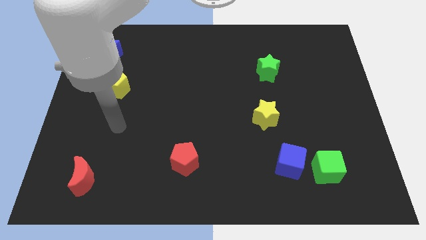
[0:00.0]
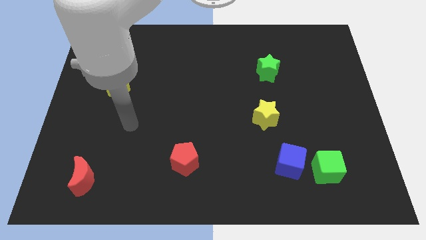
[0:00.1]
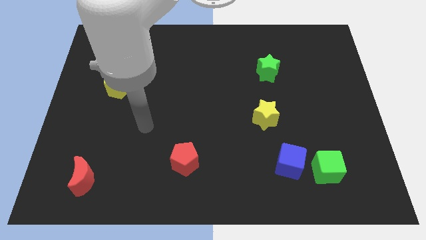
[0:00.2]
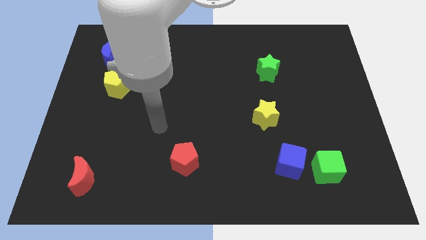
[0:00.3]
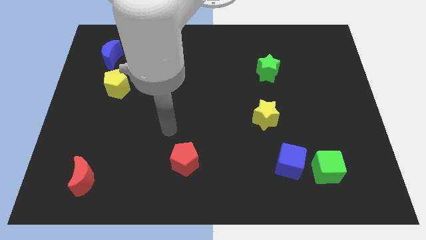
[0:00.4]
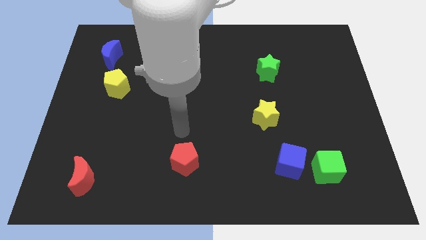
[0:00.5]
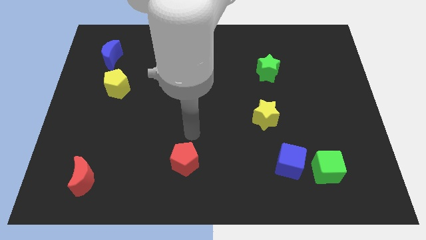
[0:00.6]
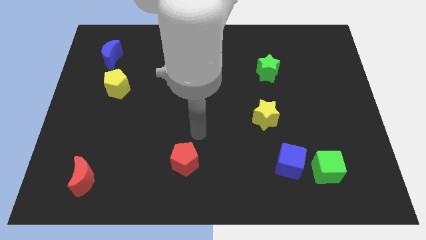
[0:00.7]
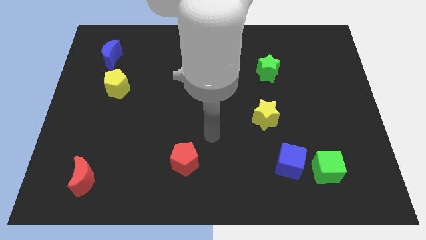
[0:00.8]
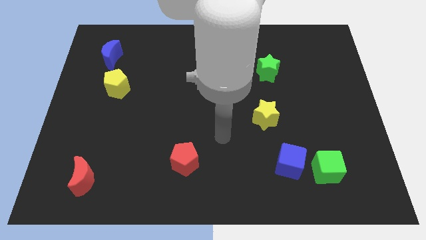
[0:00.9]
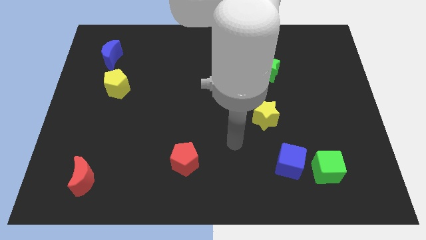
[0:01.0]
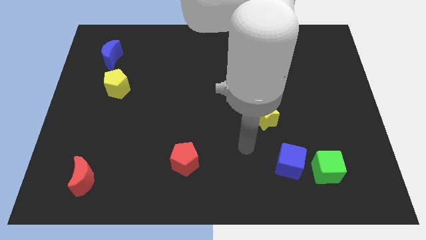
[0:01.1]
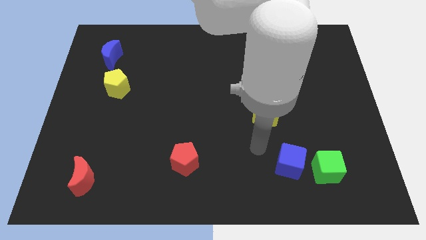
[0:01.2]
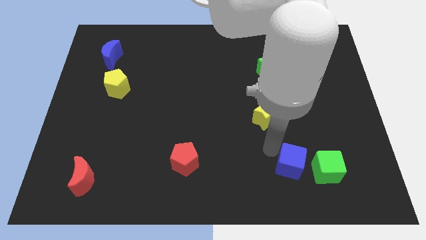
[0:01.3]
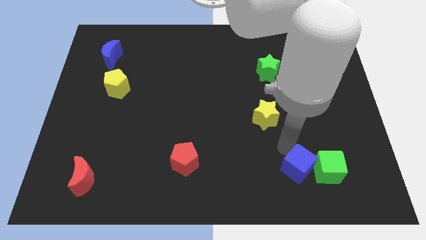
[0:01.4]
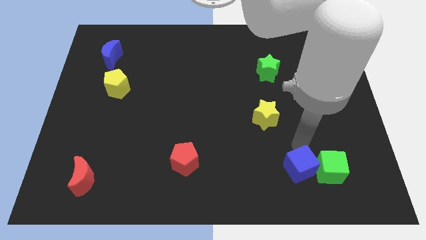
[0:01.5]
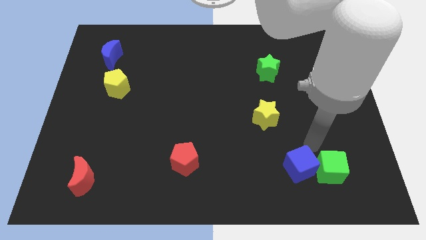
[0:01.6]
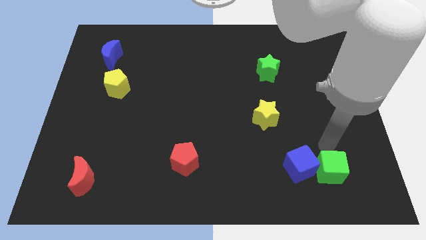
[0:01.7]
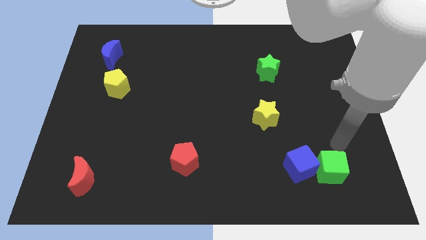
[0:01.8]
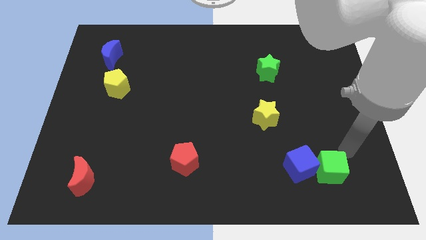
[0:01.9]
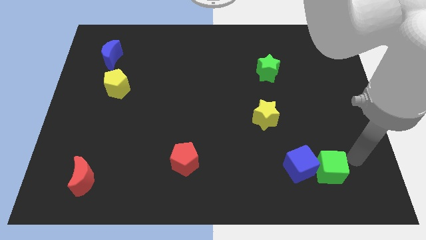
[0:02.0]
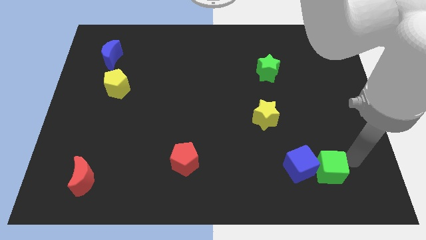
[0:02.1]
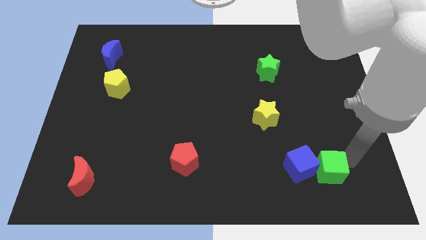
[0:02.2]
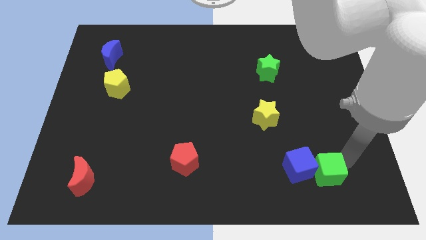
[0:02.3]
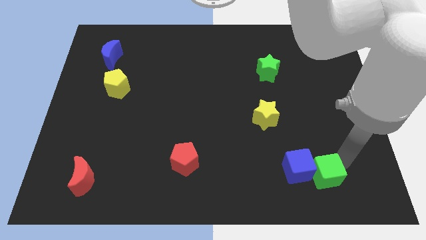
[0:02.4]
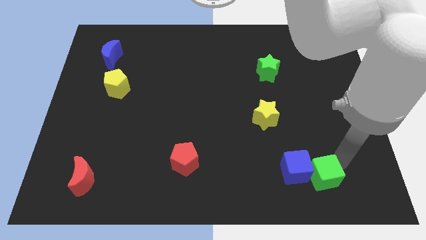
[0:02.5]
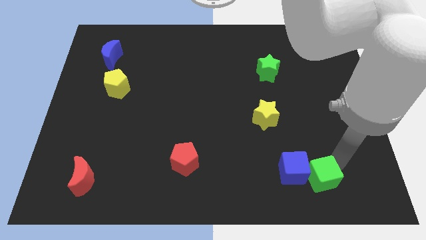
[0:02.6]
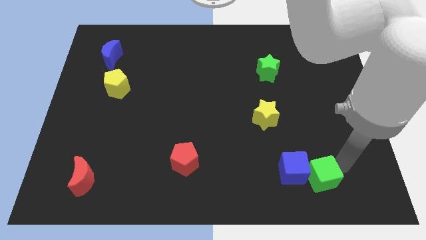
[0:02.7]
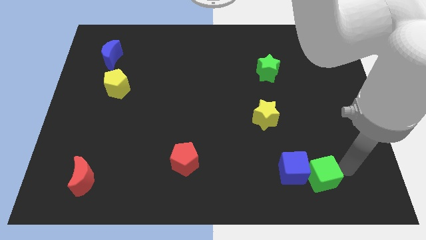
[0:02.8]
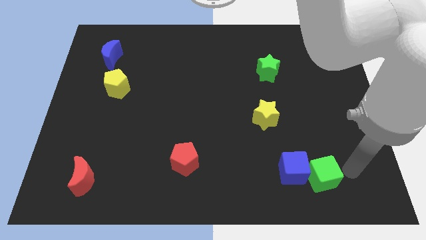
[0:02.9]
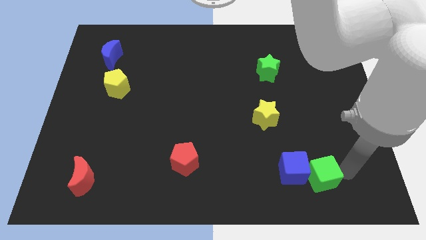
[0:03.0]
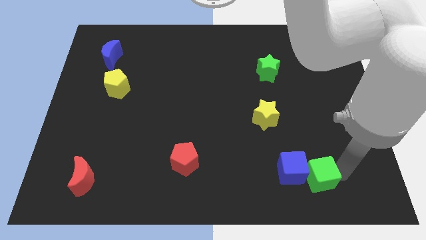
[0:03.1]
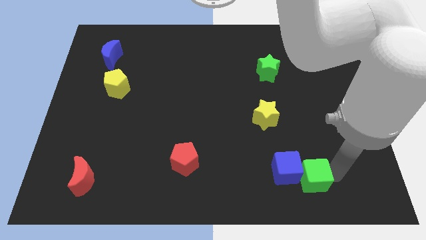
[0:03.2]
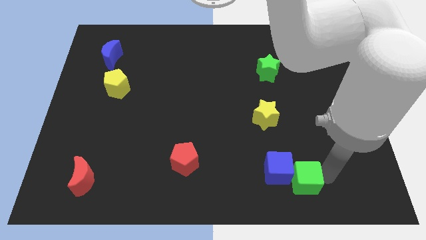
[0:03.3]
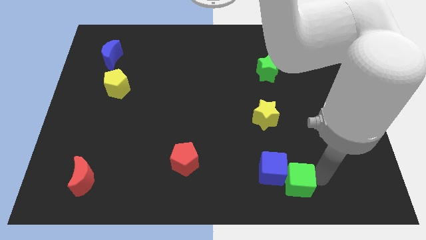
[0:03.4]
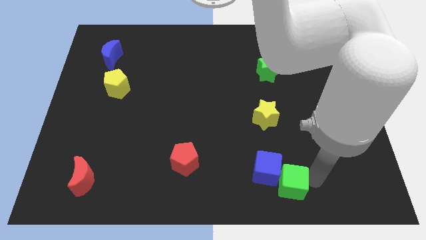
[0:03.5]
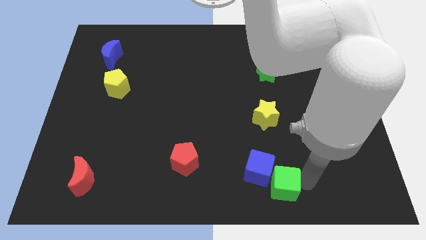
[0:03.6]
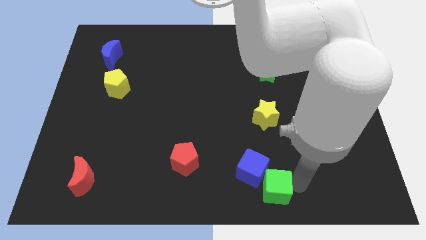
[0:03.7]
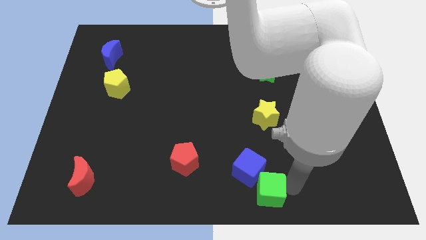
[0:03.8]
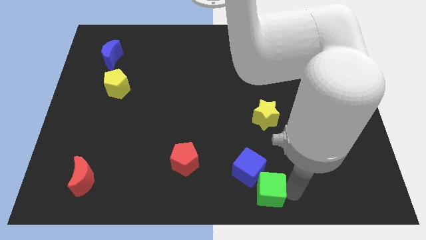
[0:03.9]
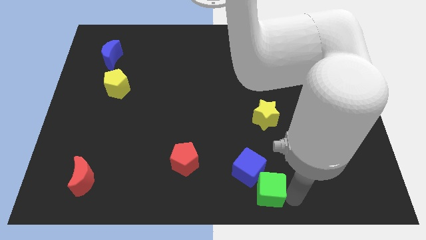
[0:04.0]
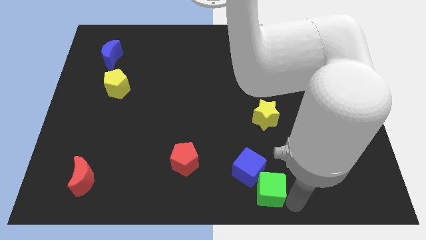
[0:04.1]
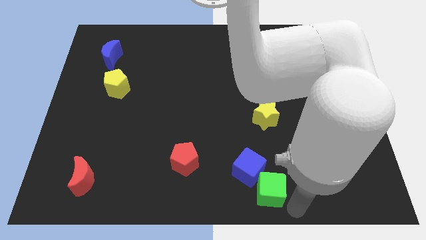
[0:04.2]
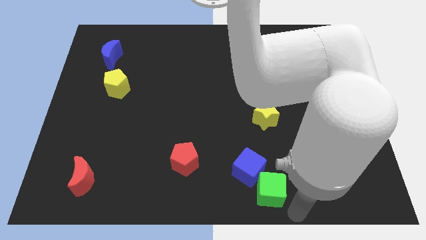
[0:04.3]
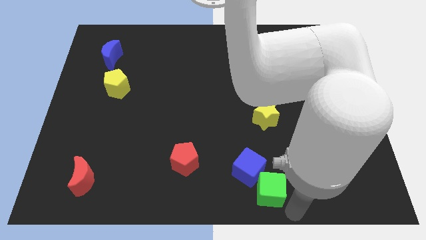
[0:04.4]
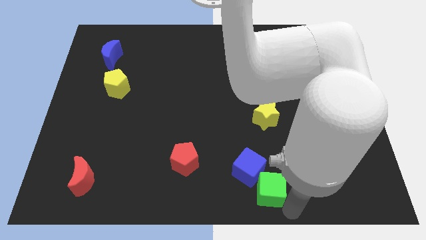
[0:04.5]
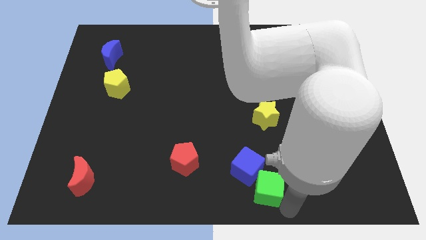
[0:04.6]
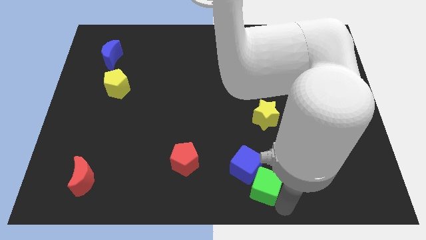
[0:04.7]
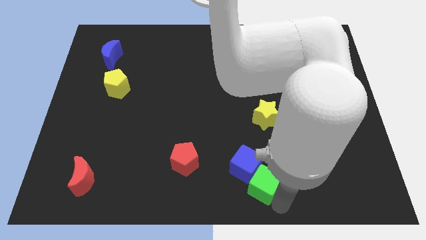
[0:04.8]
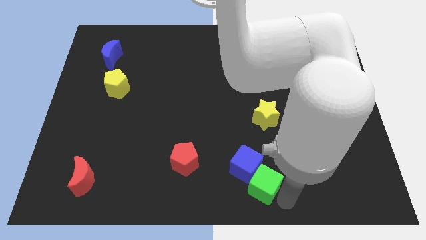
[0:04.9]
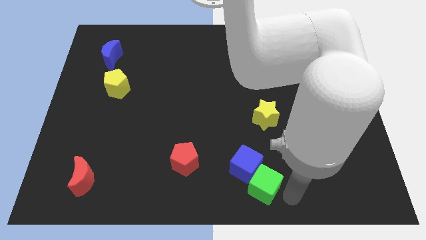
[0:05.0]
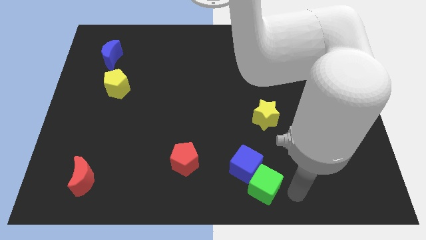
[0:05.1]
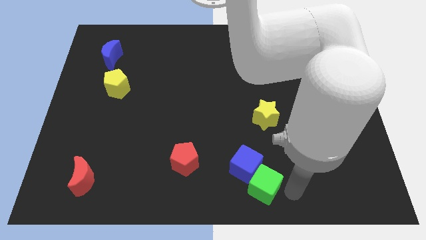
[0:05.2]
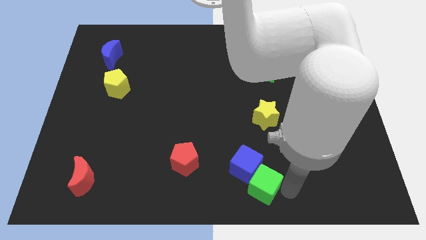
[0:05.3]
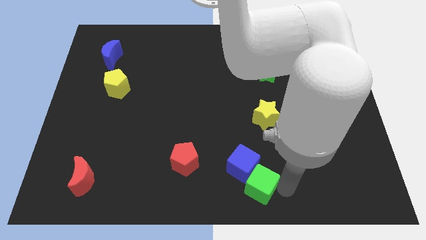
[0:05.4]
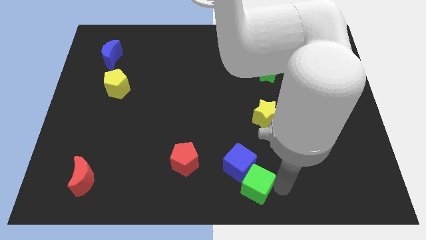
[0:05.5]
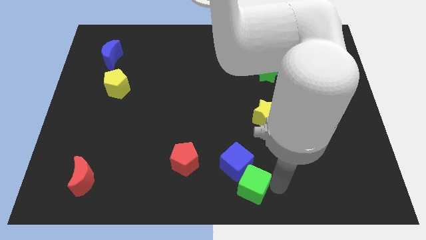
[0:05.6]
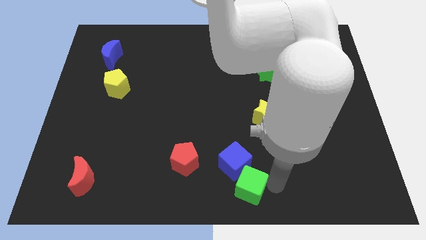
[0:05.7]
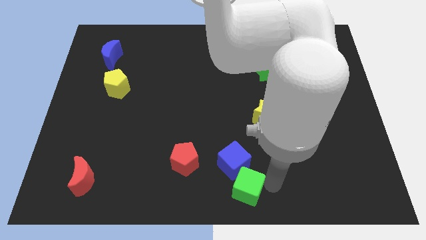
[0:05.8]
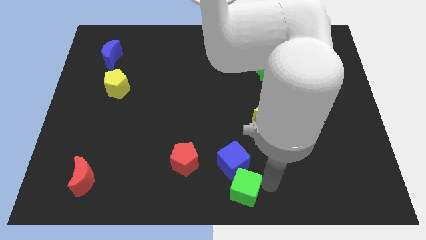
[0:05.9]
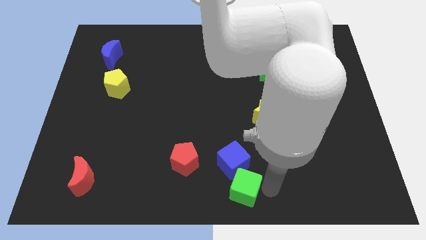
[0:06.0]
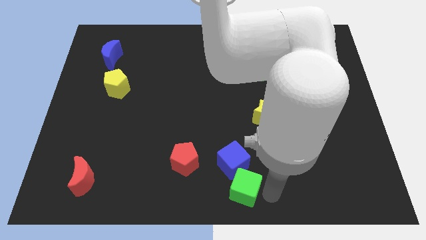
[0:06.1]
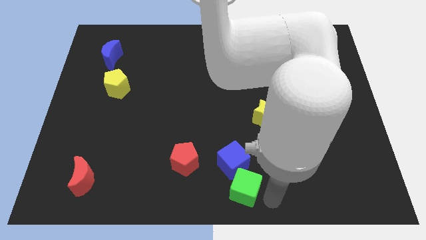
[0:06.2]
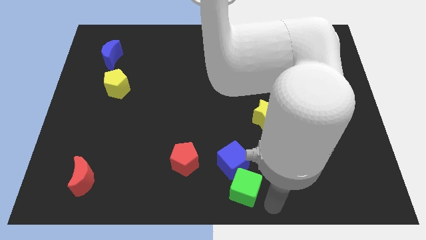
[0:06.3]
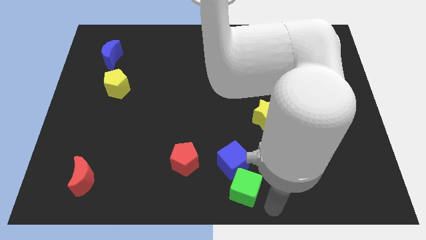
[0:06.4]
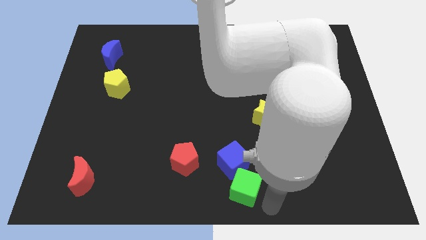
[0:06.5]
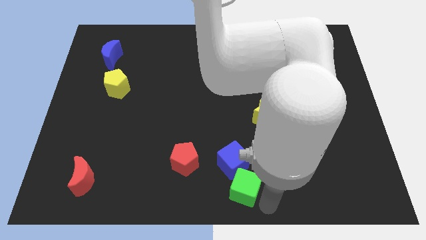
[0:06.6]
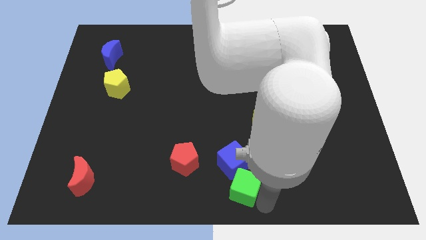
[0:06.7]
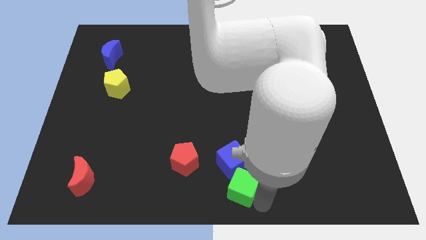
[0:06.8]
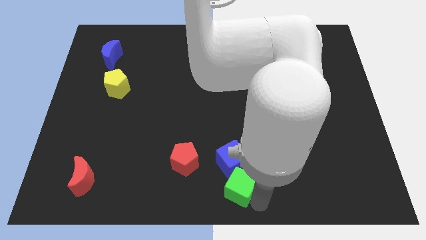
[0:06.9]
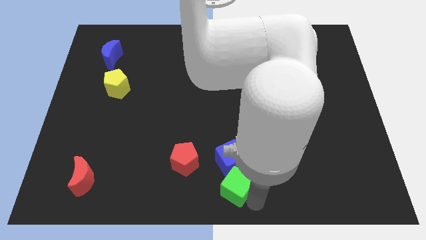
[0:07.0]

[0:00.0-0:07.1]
move the green cube to the bottom right of the red pentagon
